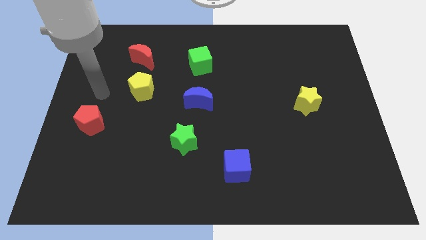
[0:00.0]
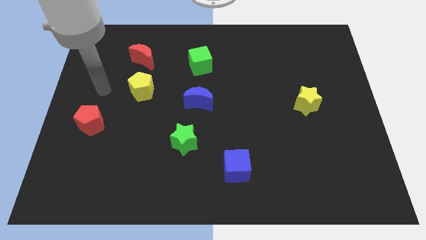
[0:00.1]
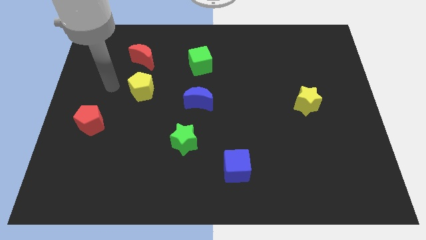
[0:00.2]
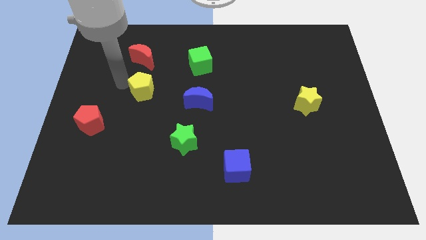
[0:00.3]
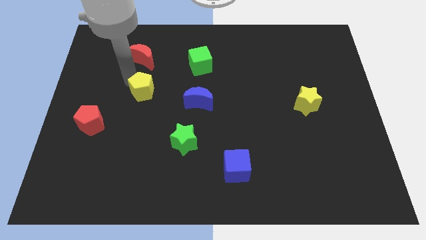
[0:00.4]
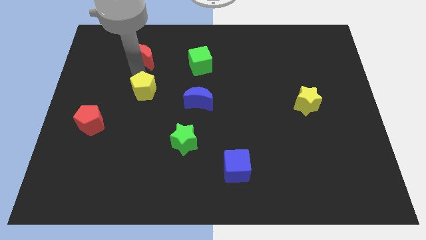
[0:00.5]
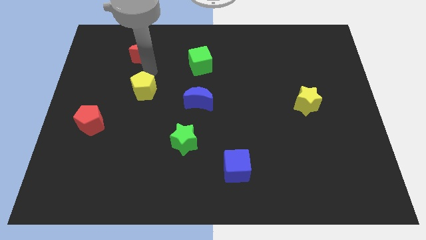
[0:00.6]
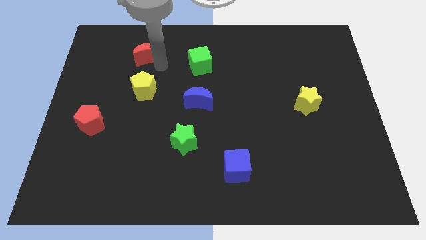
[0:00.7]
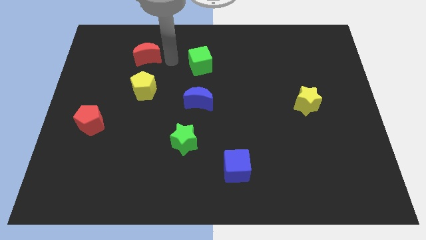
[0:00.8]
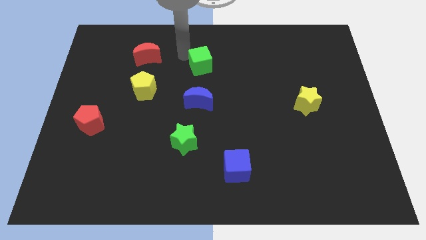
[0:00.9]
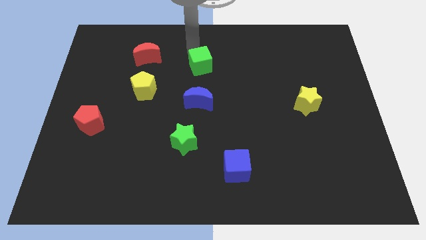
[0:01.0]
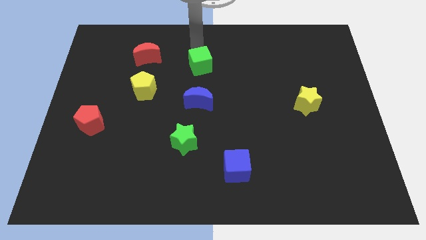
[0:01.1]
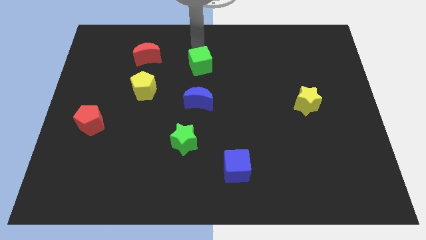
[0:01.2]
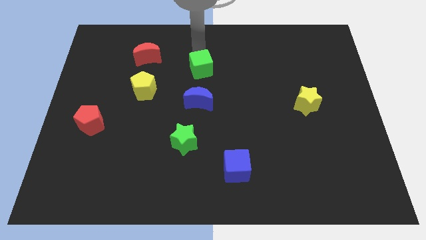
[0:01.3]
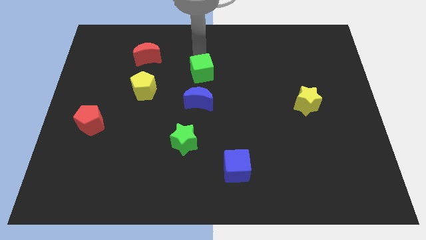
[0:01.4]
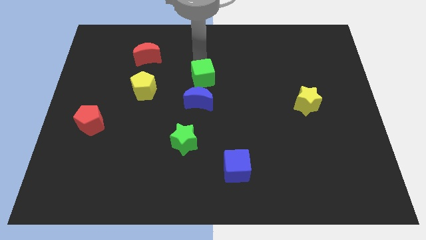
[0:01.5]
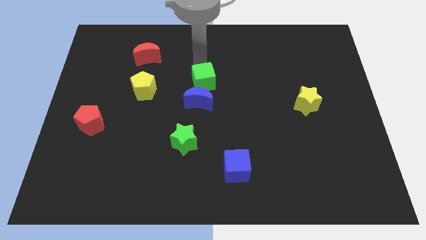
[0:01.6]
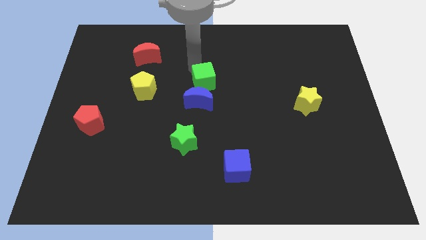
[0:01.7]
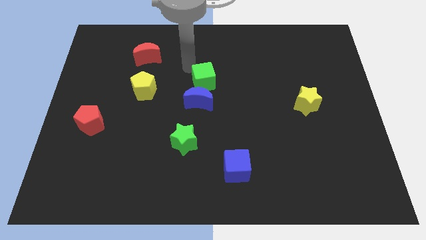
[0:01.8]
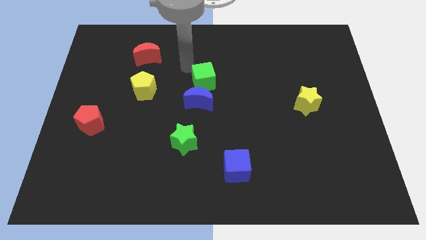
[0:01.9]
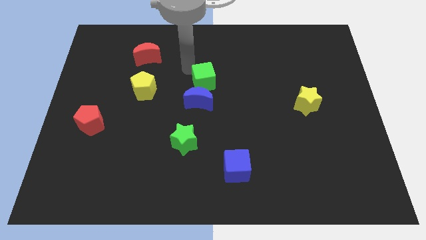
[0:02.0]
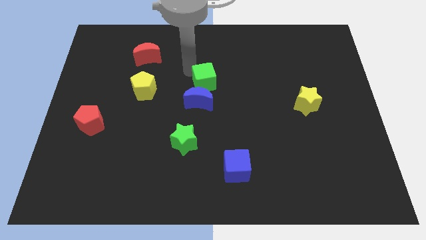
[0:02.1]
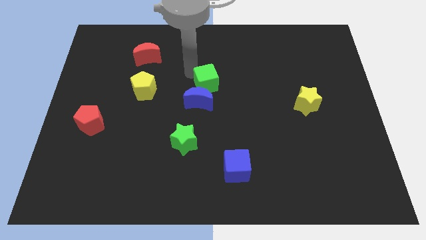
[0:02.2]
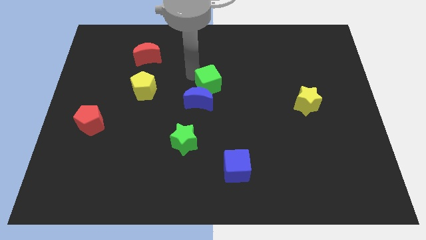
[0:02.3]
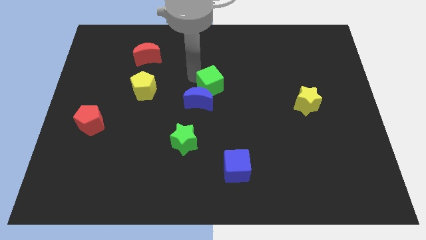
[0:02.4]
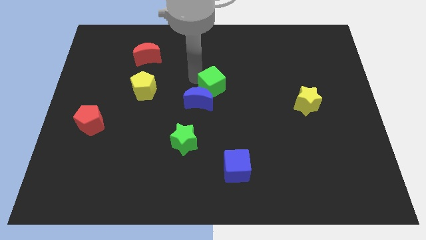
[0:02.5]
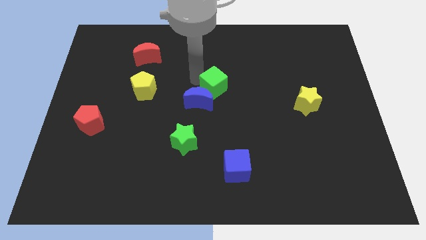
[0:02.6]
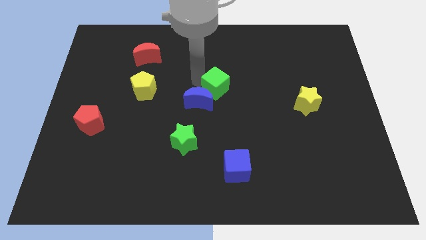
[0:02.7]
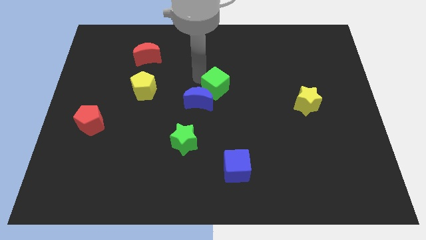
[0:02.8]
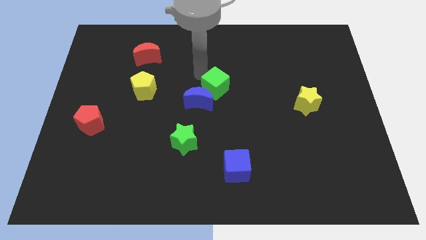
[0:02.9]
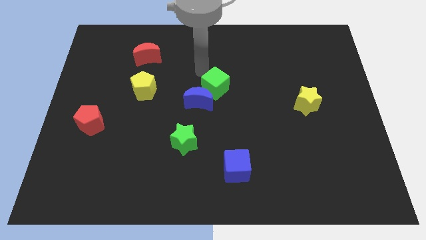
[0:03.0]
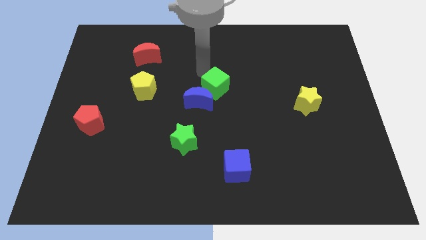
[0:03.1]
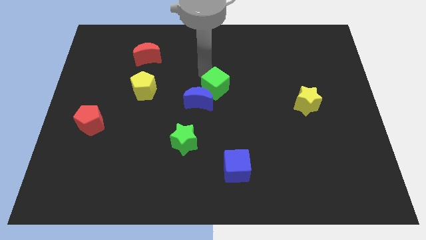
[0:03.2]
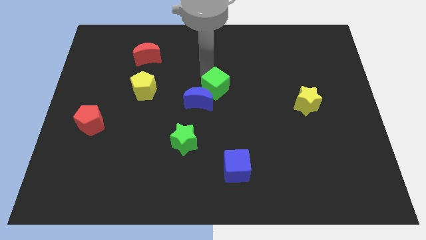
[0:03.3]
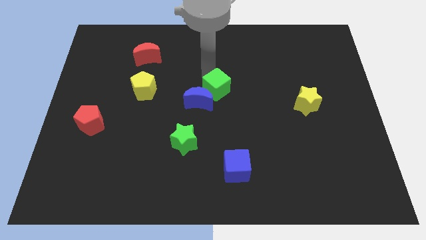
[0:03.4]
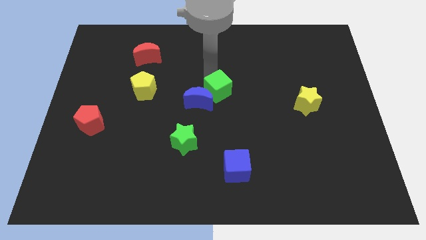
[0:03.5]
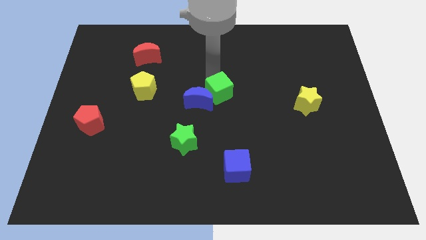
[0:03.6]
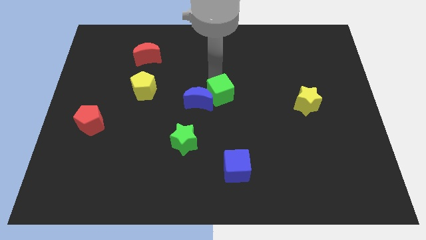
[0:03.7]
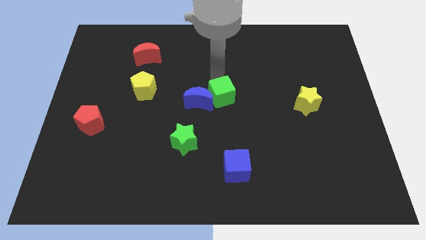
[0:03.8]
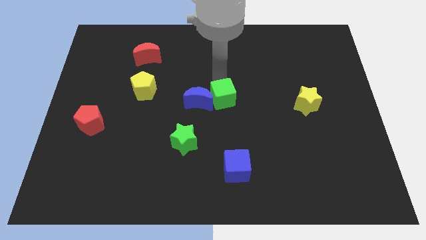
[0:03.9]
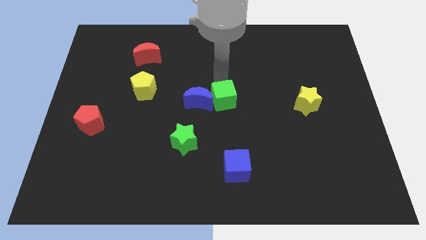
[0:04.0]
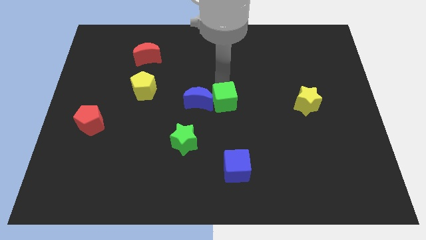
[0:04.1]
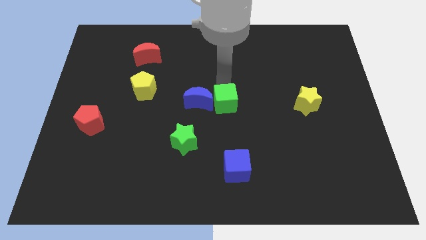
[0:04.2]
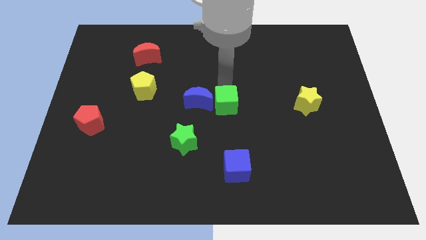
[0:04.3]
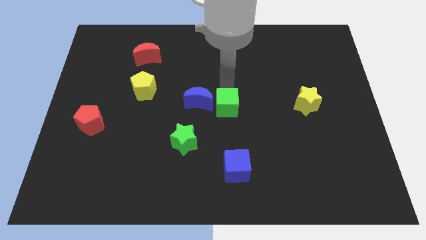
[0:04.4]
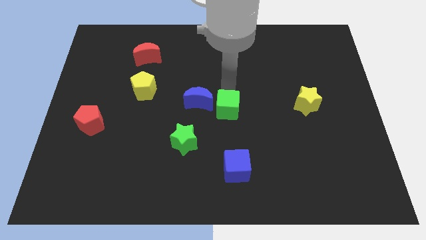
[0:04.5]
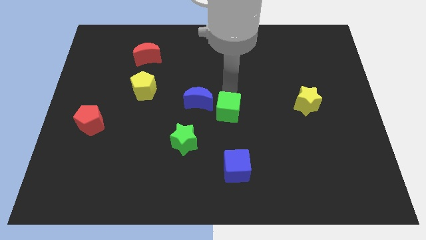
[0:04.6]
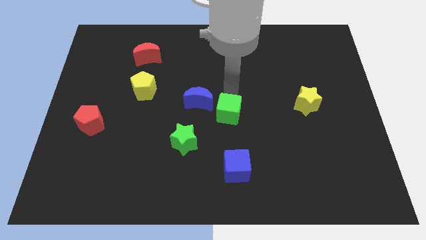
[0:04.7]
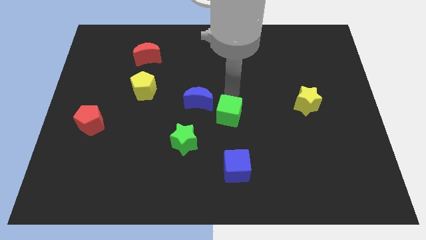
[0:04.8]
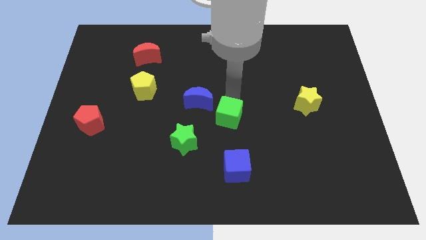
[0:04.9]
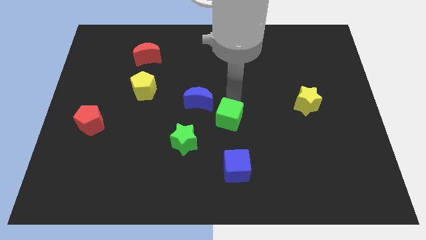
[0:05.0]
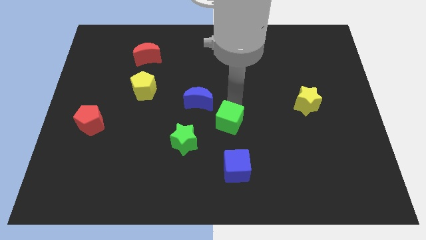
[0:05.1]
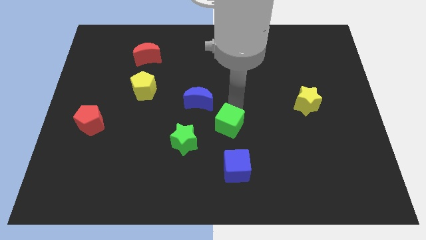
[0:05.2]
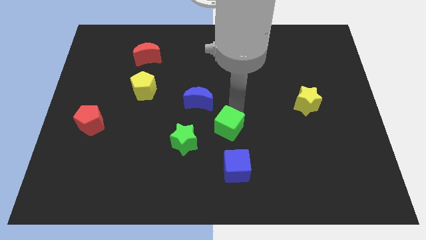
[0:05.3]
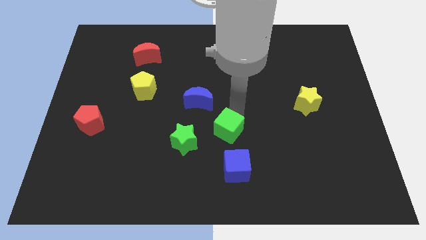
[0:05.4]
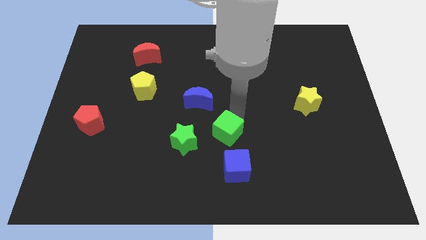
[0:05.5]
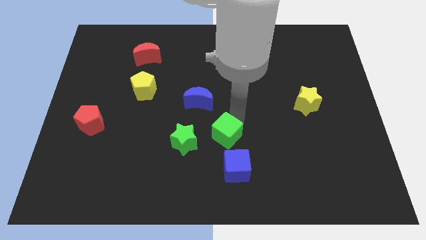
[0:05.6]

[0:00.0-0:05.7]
slide the green cube to the top left of the blue cube

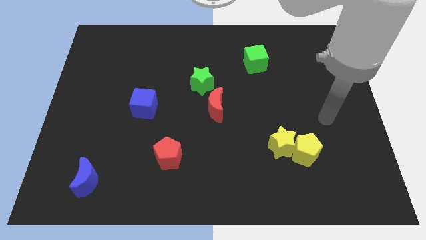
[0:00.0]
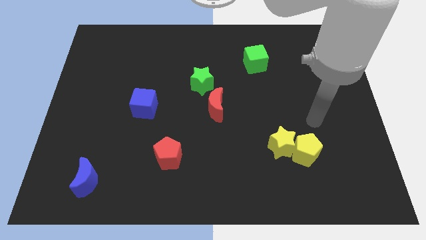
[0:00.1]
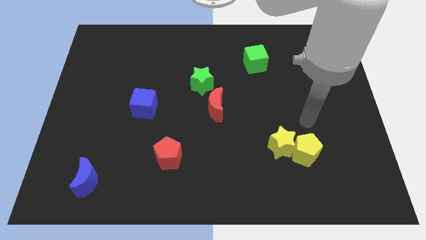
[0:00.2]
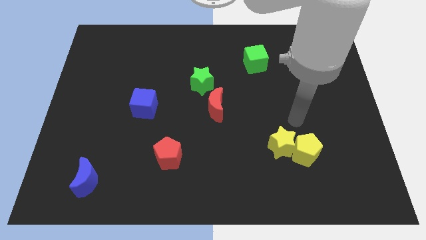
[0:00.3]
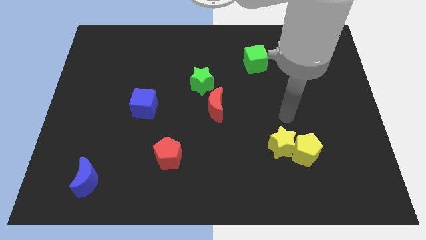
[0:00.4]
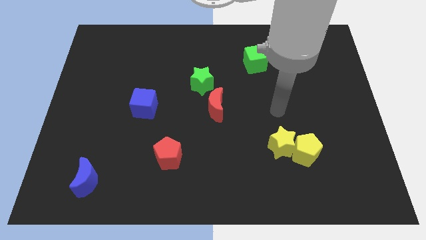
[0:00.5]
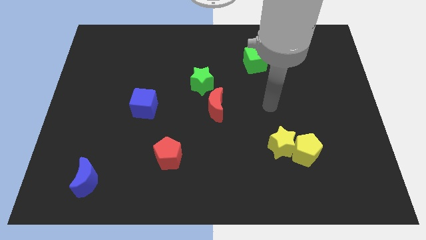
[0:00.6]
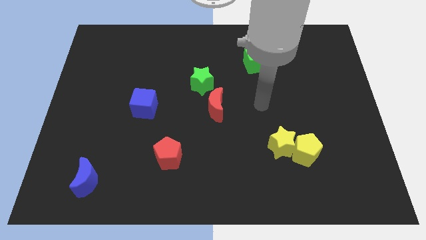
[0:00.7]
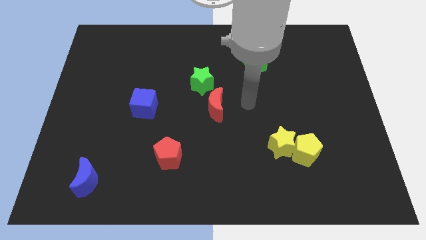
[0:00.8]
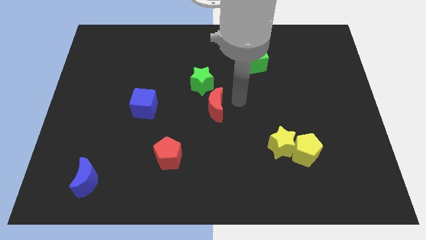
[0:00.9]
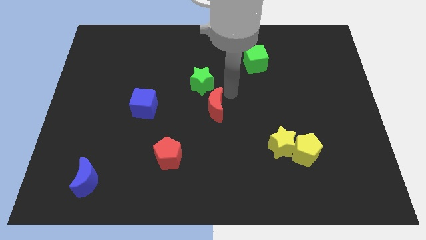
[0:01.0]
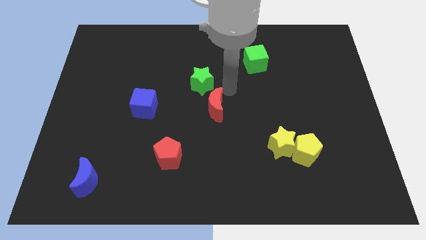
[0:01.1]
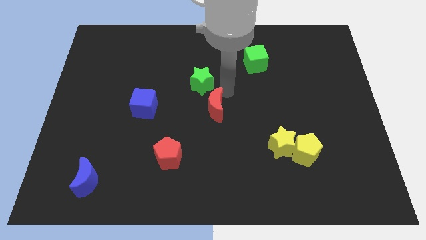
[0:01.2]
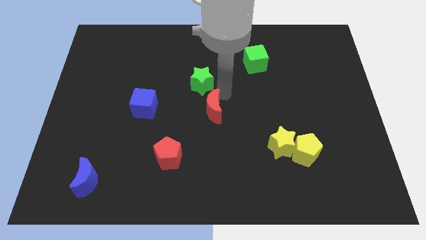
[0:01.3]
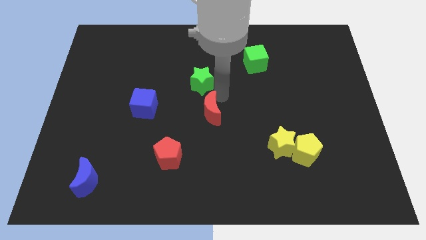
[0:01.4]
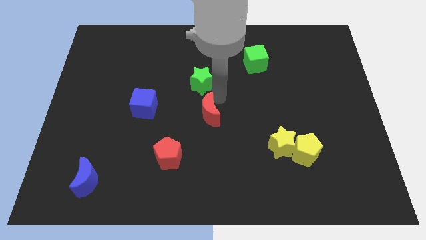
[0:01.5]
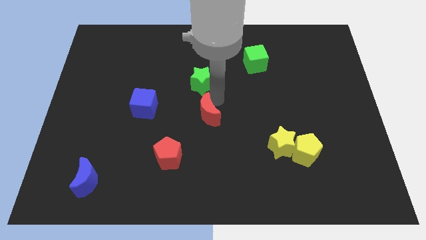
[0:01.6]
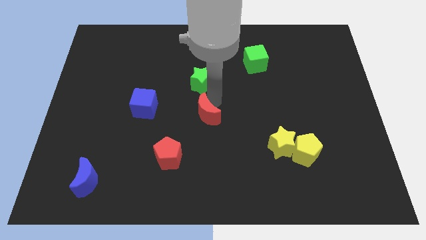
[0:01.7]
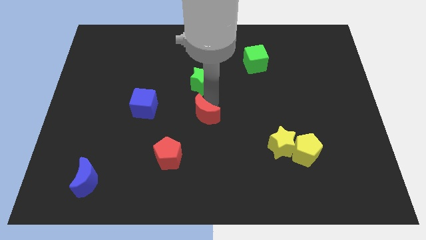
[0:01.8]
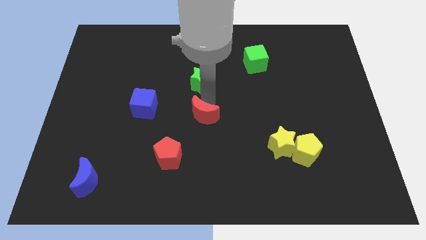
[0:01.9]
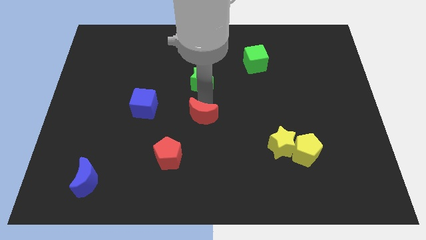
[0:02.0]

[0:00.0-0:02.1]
move the red moon to the top right side of the red pentagon
